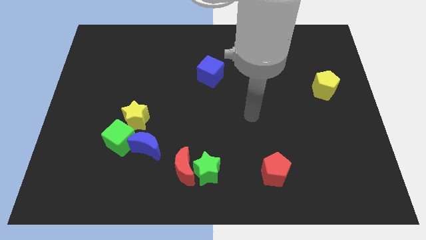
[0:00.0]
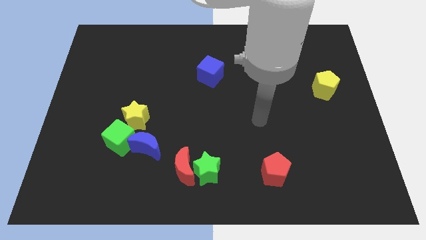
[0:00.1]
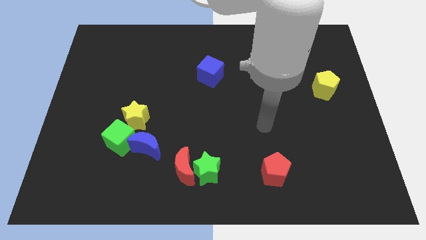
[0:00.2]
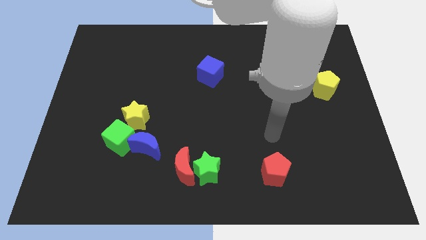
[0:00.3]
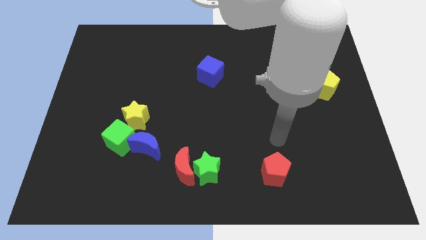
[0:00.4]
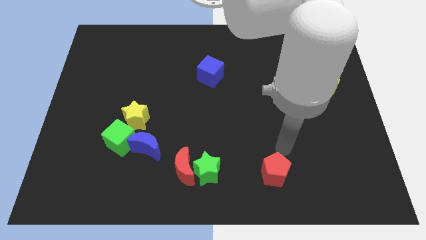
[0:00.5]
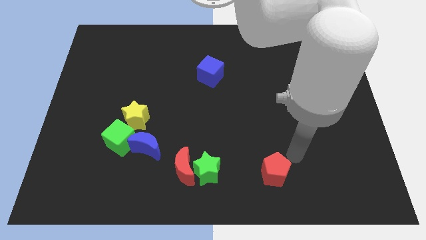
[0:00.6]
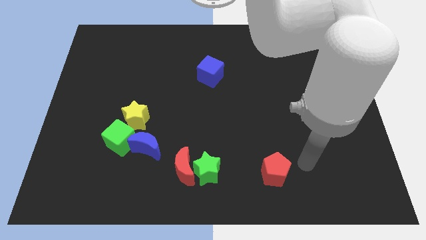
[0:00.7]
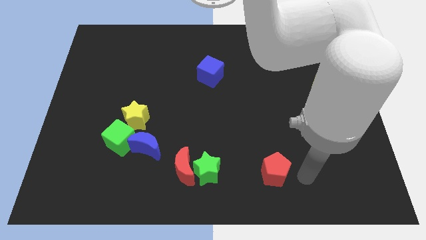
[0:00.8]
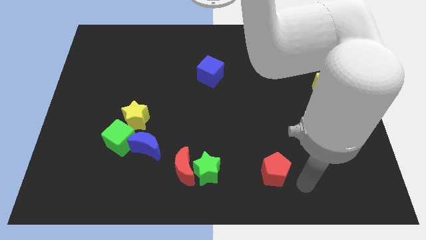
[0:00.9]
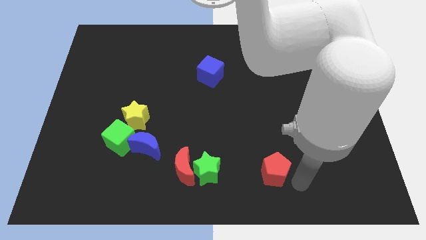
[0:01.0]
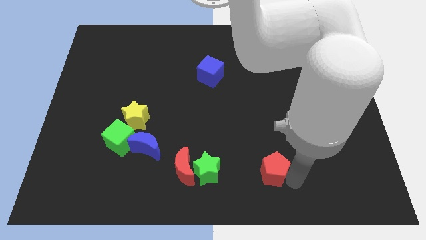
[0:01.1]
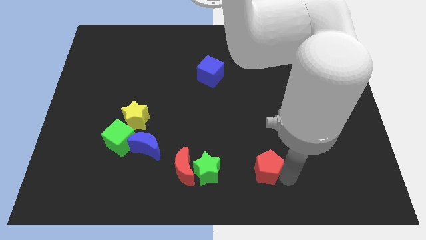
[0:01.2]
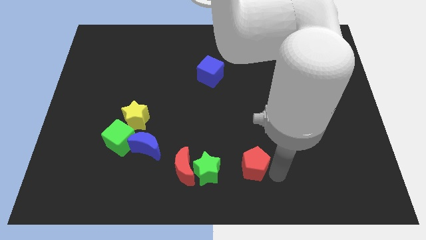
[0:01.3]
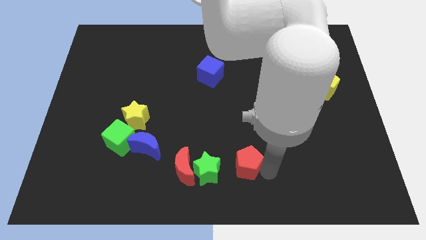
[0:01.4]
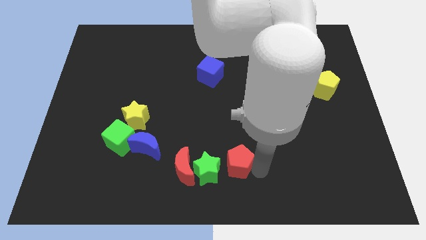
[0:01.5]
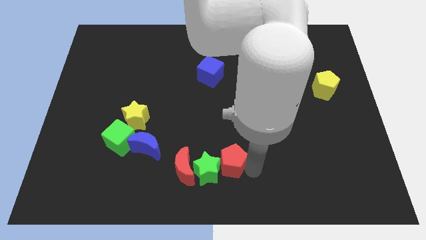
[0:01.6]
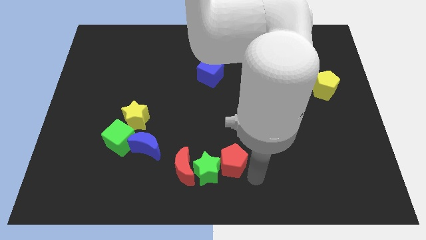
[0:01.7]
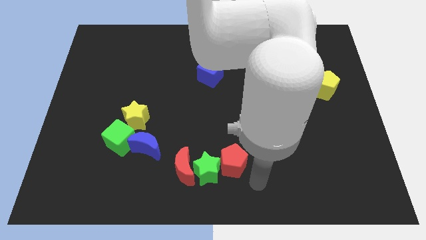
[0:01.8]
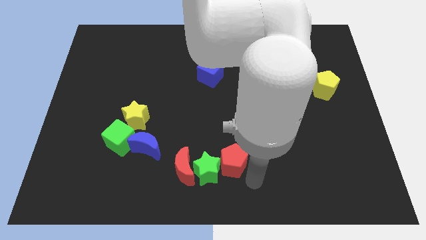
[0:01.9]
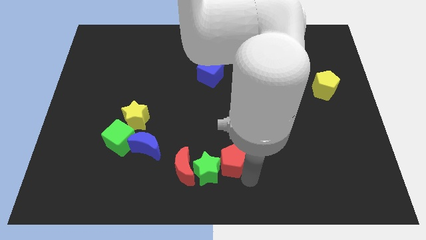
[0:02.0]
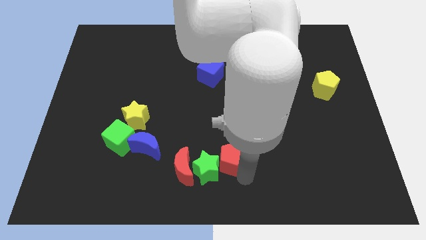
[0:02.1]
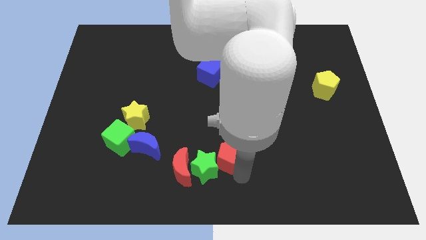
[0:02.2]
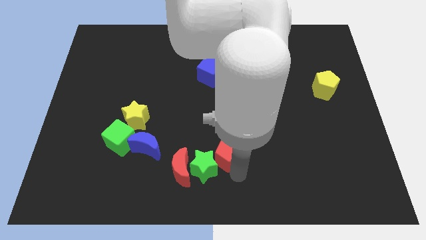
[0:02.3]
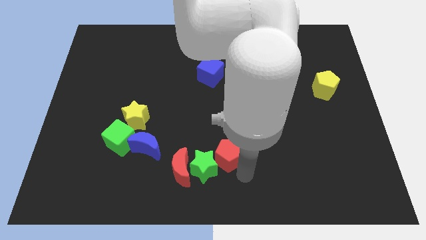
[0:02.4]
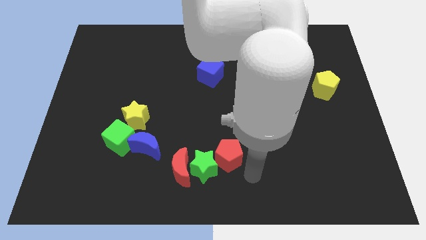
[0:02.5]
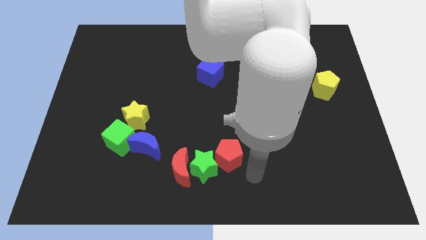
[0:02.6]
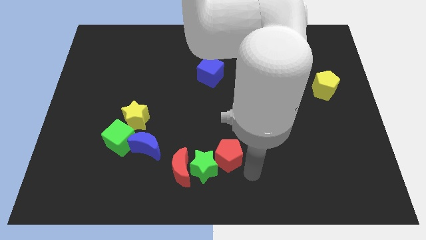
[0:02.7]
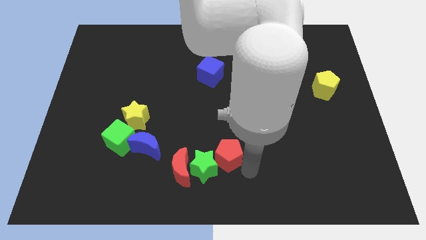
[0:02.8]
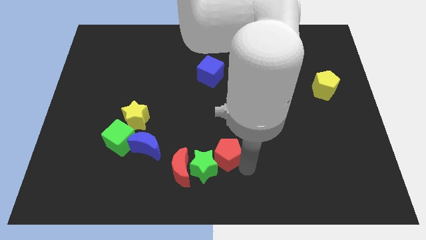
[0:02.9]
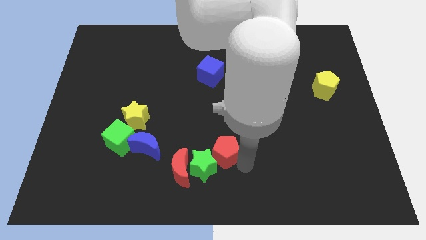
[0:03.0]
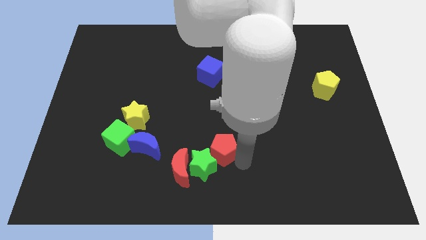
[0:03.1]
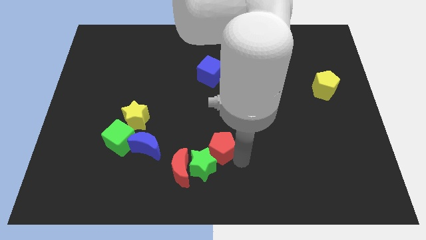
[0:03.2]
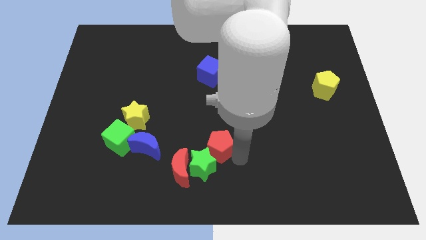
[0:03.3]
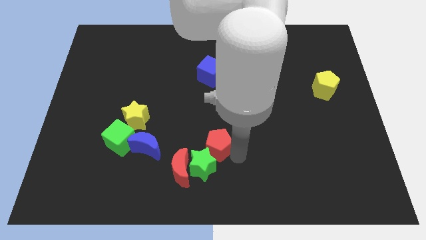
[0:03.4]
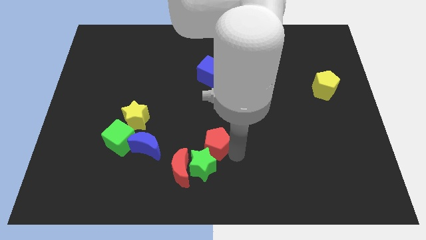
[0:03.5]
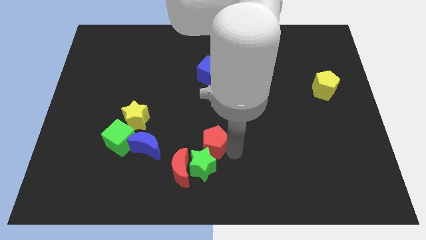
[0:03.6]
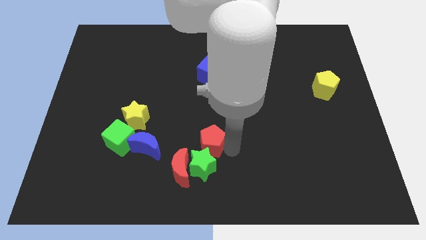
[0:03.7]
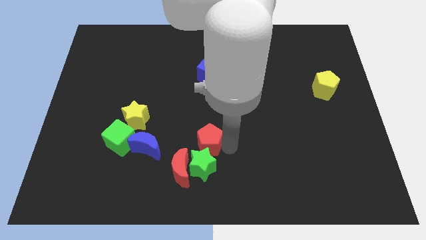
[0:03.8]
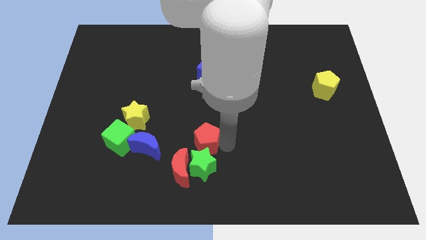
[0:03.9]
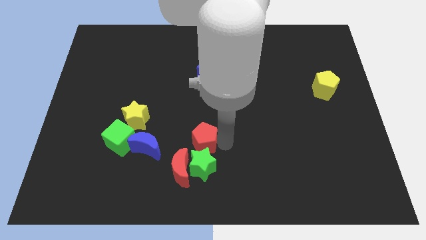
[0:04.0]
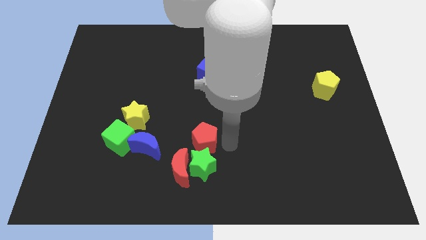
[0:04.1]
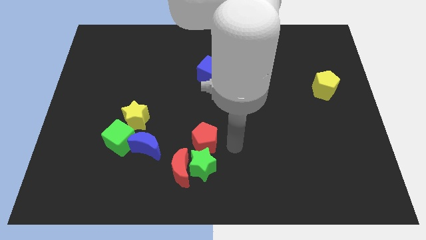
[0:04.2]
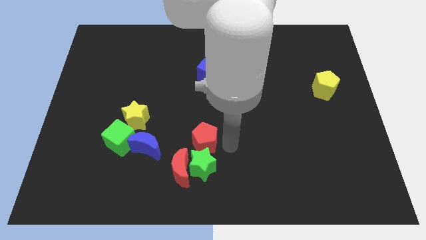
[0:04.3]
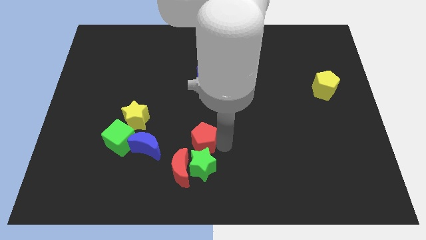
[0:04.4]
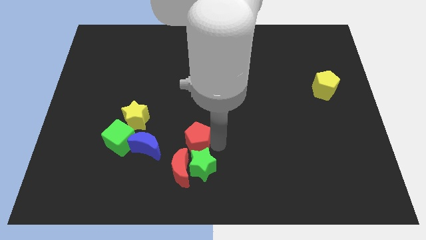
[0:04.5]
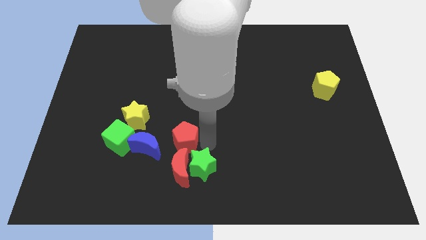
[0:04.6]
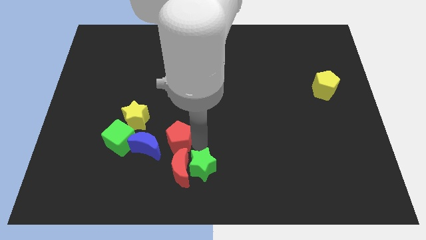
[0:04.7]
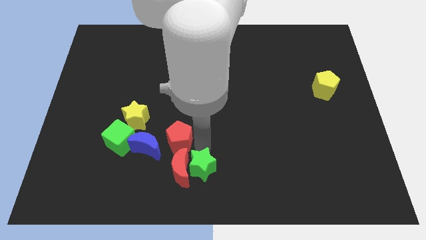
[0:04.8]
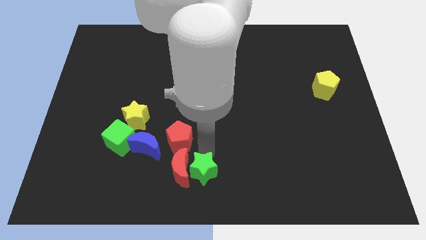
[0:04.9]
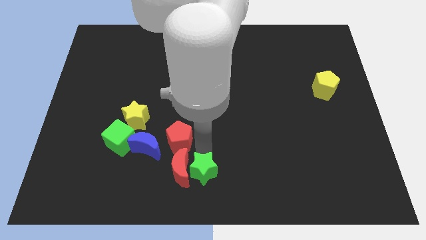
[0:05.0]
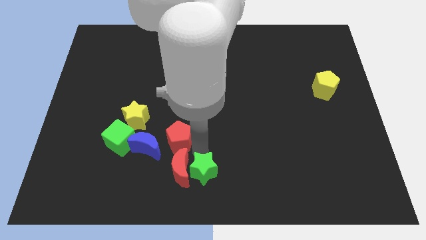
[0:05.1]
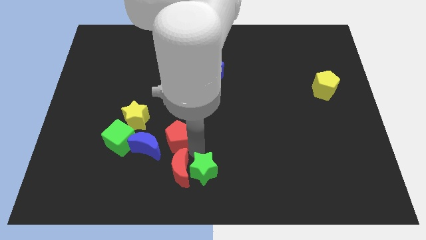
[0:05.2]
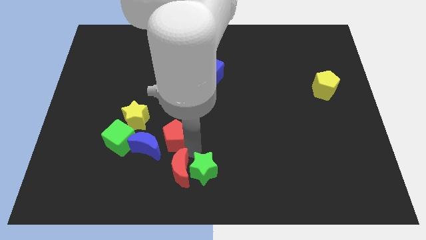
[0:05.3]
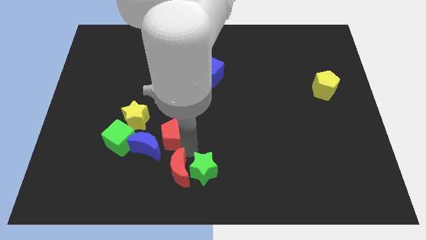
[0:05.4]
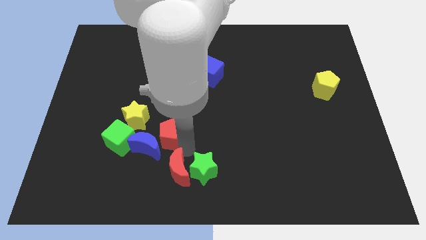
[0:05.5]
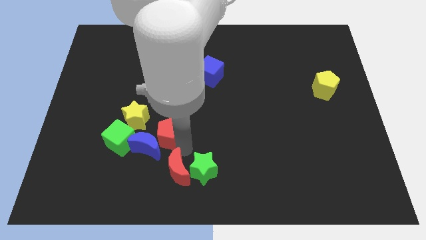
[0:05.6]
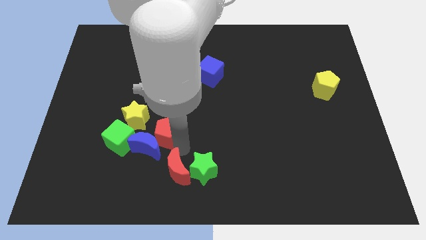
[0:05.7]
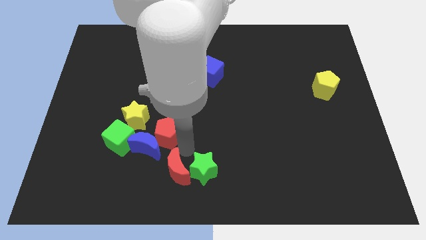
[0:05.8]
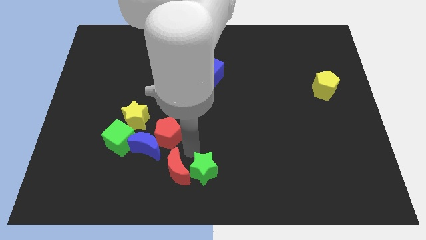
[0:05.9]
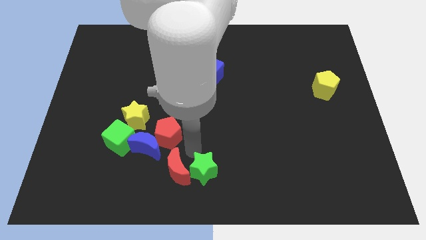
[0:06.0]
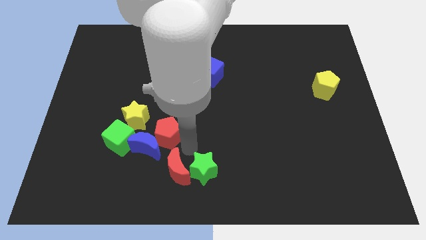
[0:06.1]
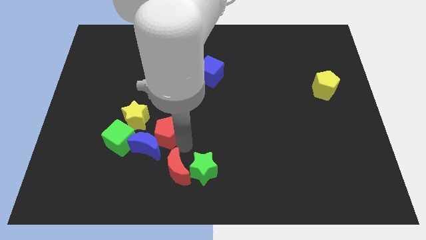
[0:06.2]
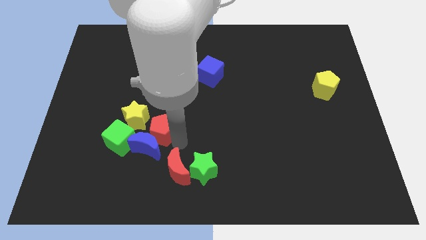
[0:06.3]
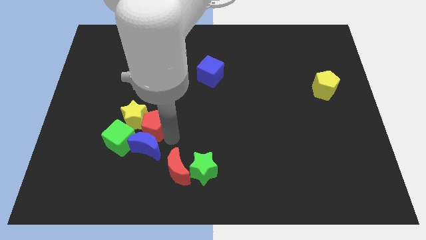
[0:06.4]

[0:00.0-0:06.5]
put the red pentagon towards the yellow star
